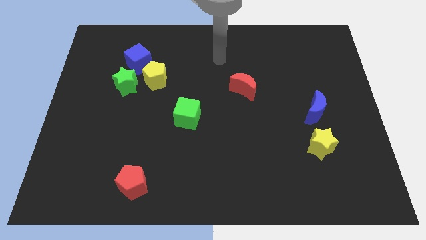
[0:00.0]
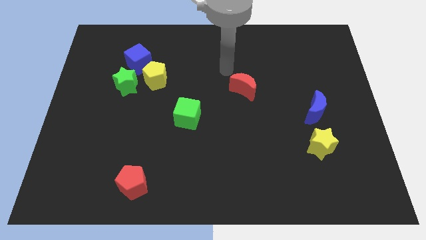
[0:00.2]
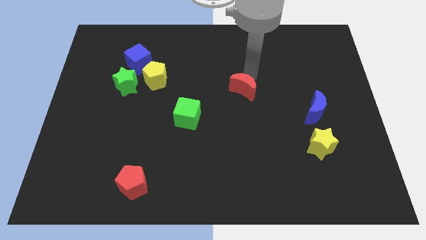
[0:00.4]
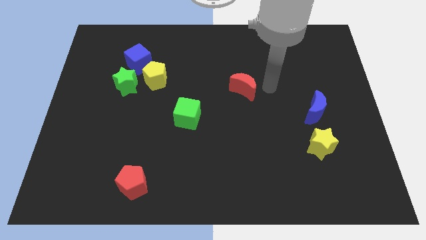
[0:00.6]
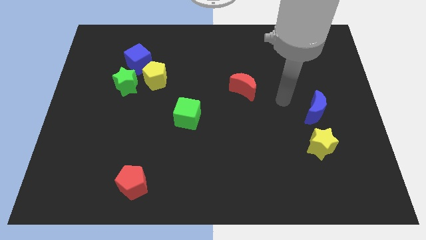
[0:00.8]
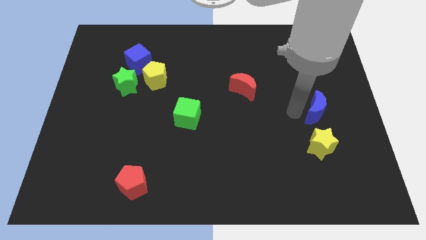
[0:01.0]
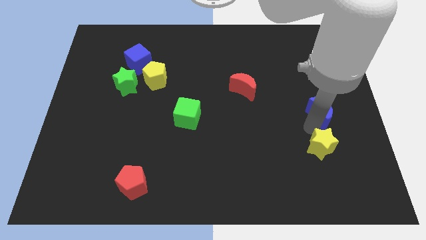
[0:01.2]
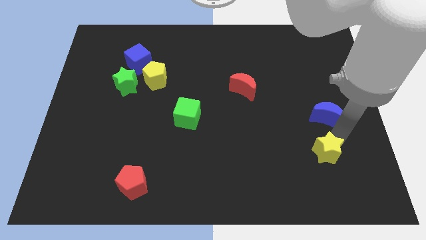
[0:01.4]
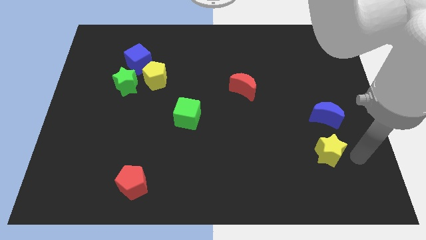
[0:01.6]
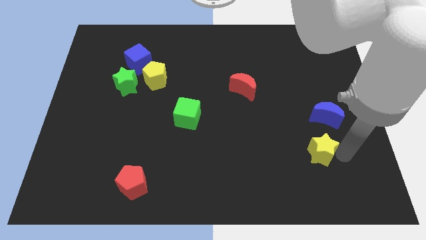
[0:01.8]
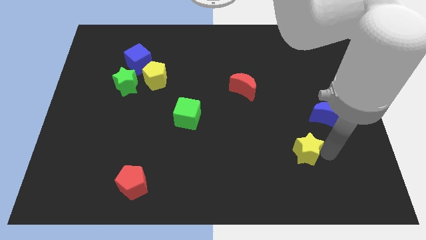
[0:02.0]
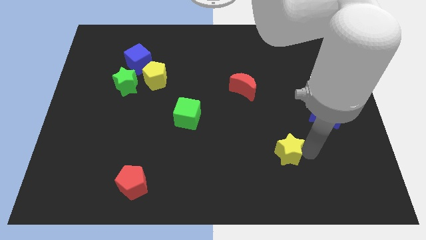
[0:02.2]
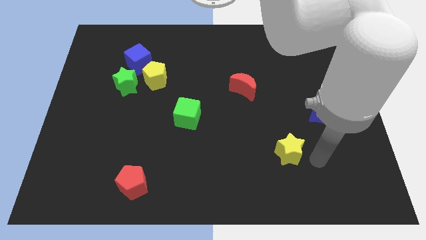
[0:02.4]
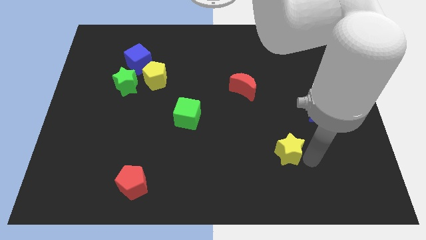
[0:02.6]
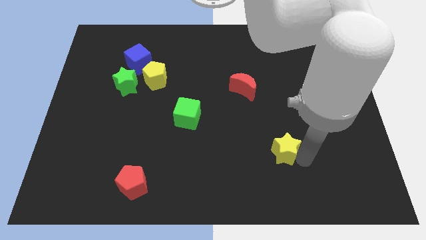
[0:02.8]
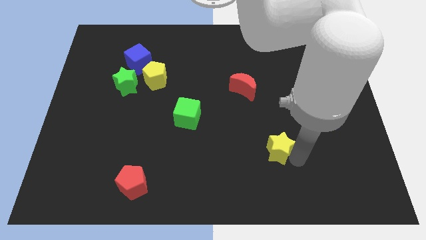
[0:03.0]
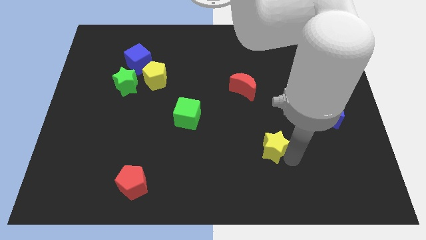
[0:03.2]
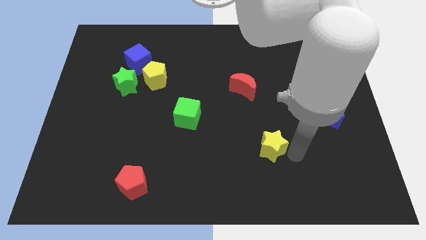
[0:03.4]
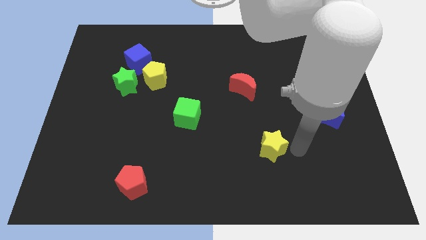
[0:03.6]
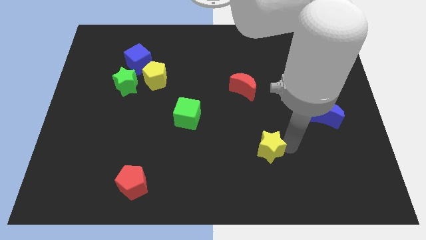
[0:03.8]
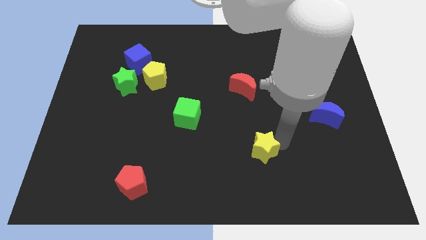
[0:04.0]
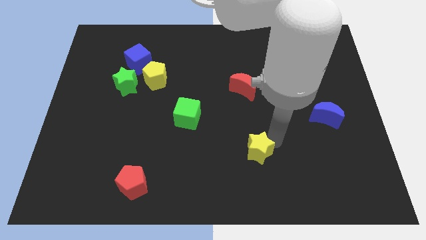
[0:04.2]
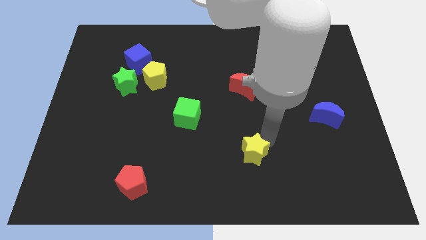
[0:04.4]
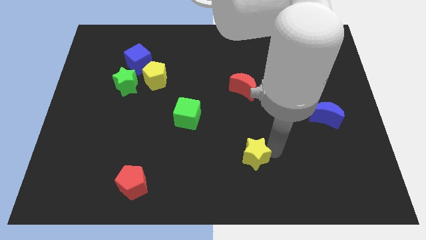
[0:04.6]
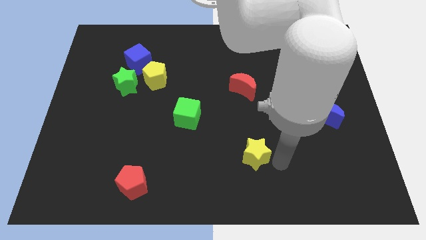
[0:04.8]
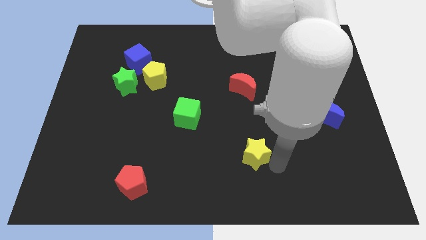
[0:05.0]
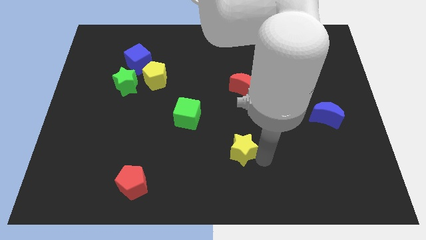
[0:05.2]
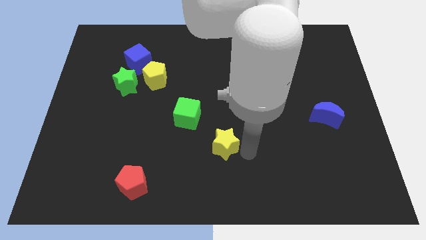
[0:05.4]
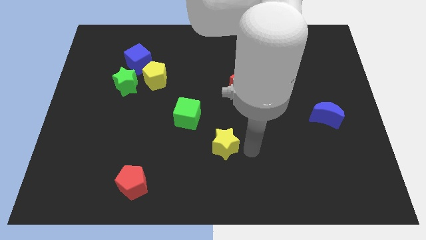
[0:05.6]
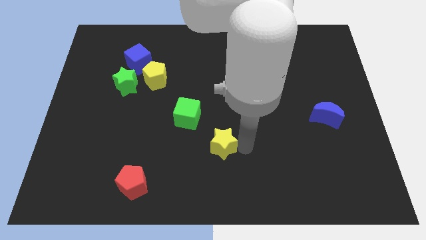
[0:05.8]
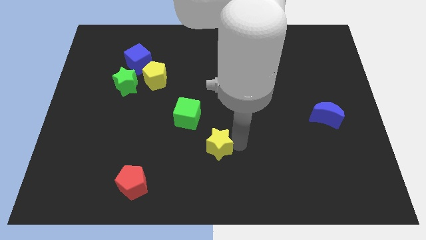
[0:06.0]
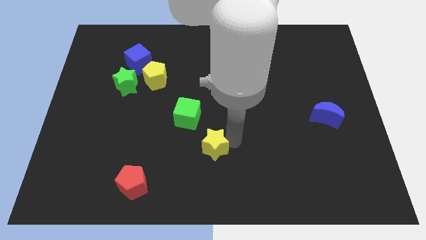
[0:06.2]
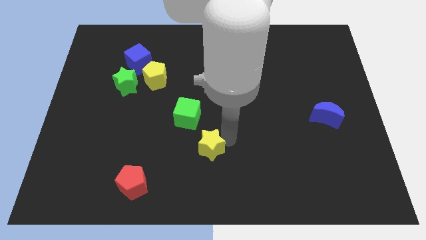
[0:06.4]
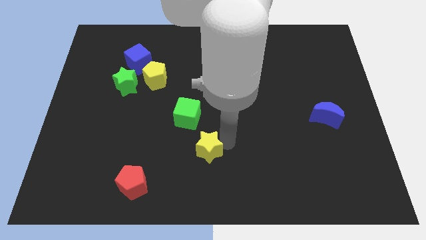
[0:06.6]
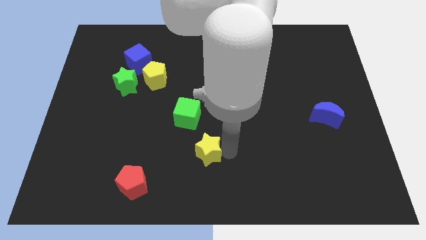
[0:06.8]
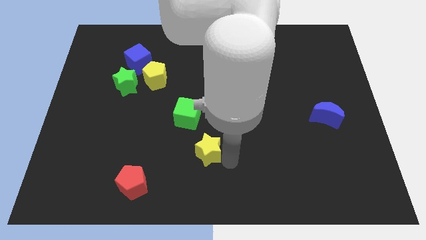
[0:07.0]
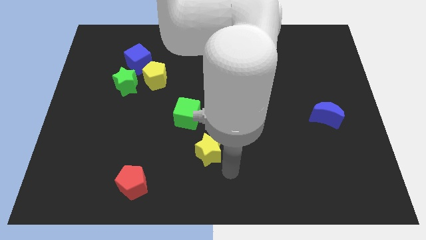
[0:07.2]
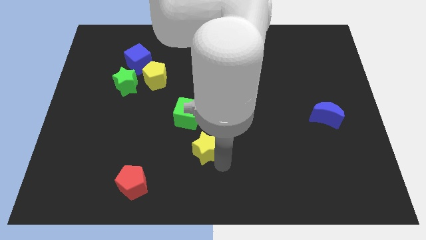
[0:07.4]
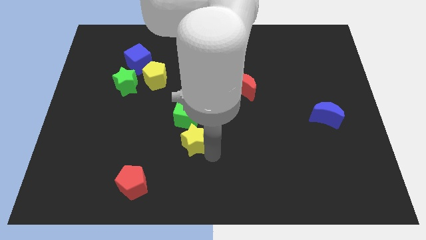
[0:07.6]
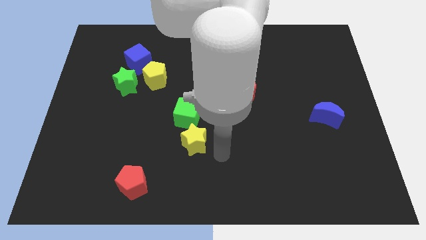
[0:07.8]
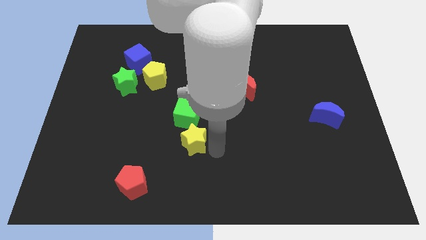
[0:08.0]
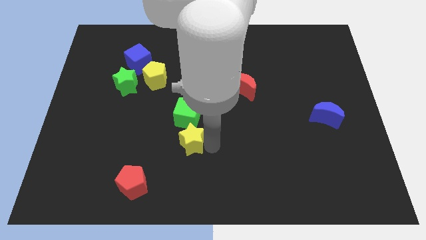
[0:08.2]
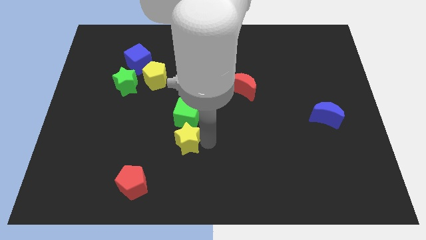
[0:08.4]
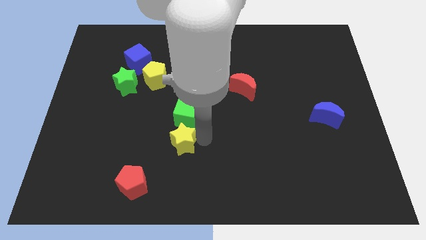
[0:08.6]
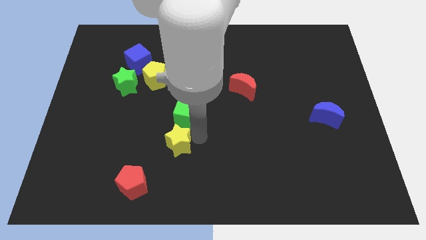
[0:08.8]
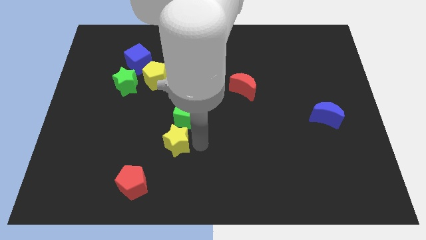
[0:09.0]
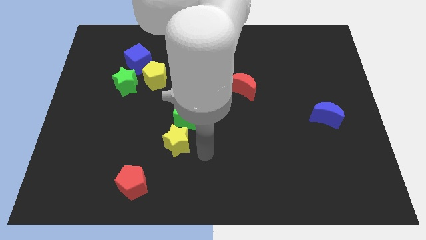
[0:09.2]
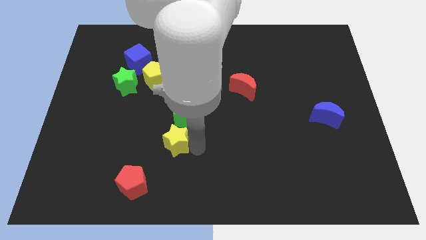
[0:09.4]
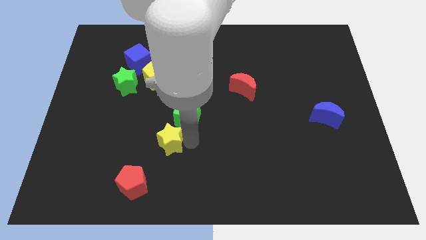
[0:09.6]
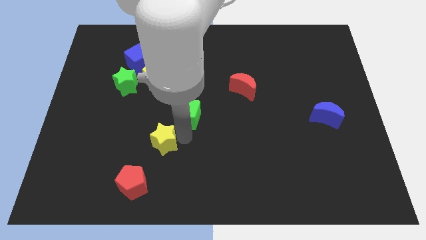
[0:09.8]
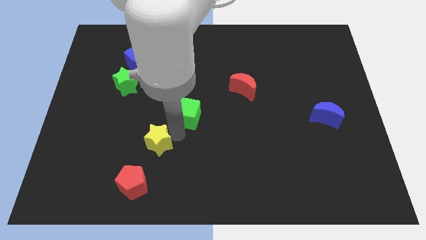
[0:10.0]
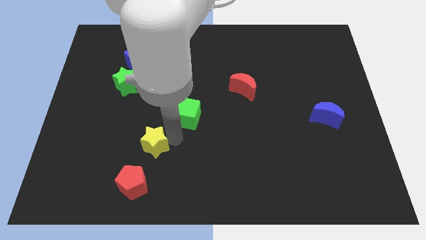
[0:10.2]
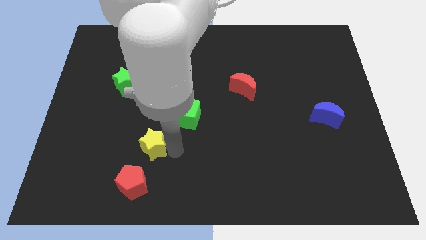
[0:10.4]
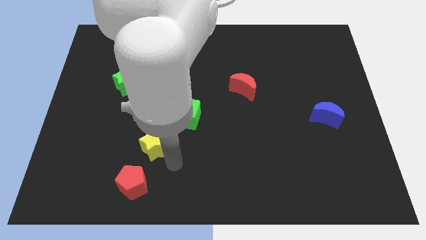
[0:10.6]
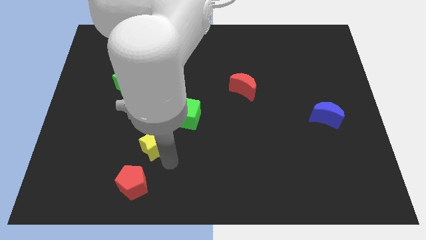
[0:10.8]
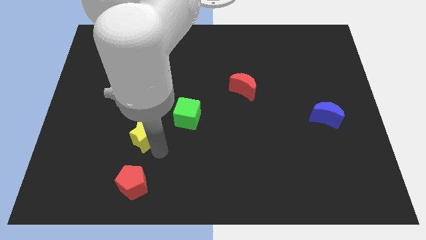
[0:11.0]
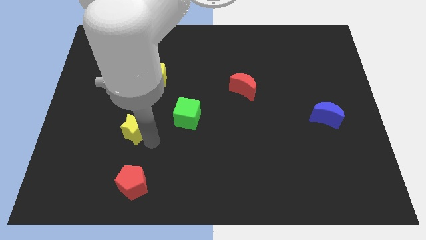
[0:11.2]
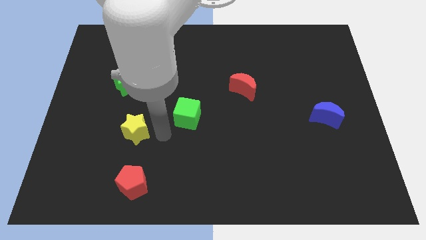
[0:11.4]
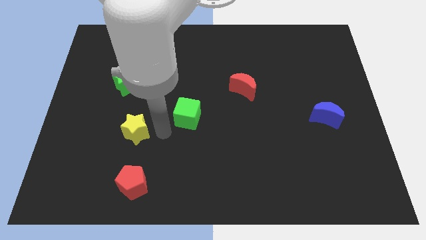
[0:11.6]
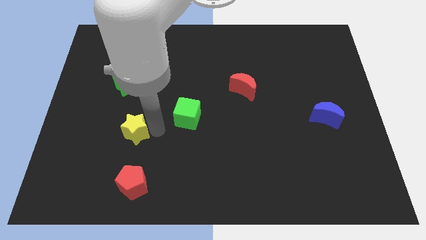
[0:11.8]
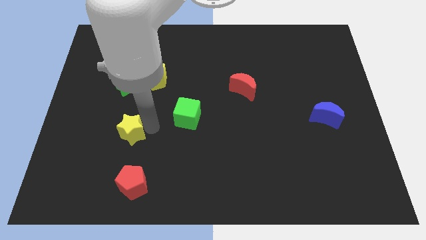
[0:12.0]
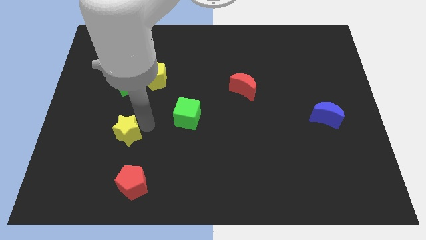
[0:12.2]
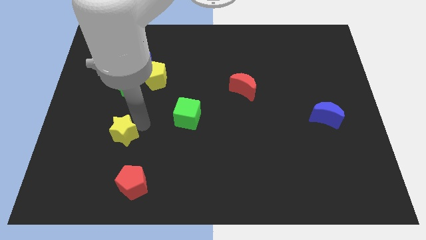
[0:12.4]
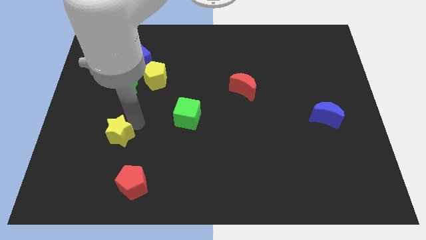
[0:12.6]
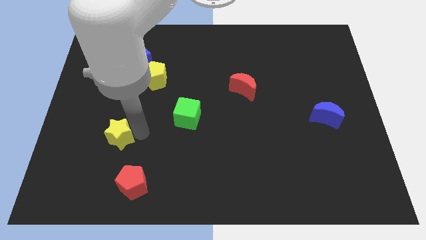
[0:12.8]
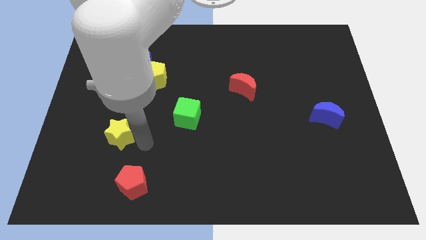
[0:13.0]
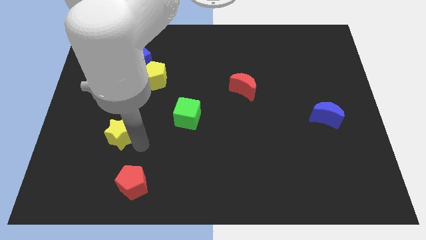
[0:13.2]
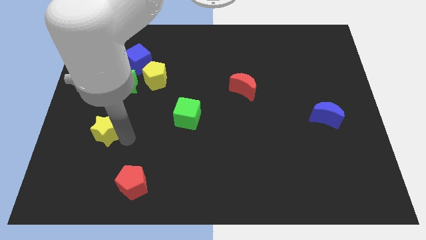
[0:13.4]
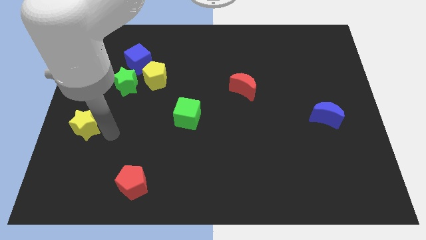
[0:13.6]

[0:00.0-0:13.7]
move the yellow star to the left side

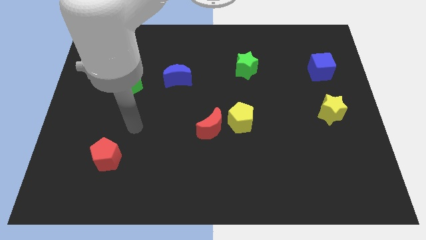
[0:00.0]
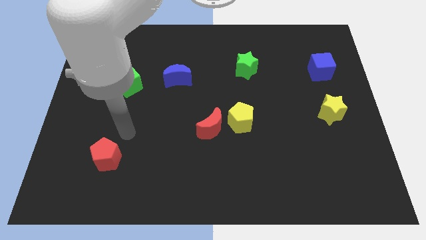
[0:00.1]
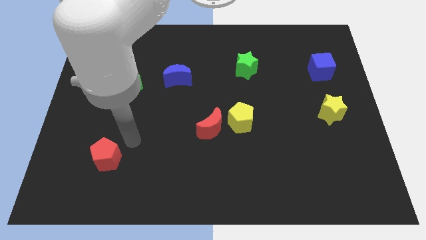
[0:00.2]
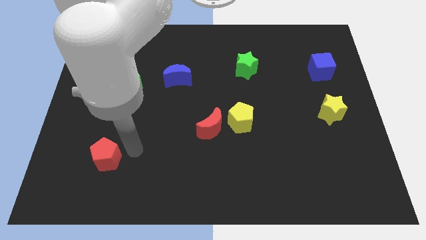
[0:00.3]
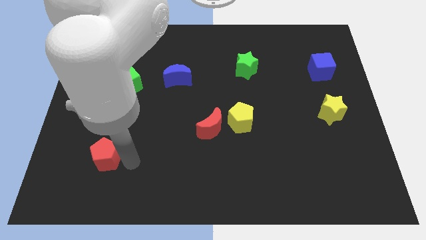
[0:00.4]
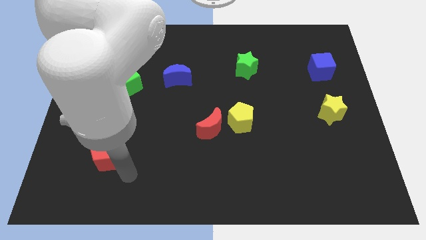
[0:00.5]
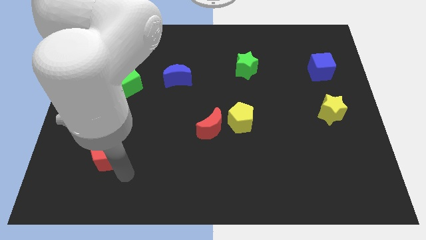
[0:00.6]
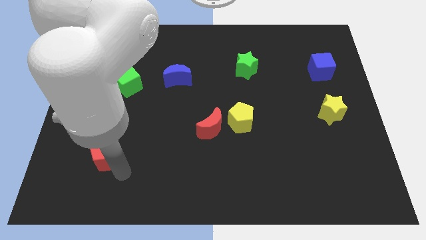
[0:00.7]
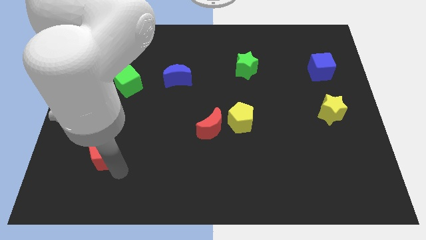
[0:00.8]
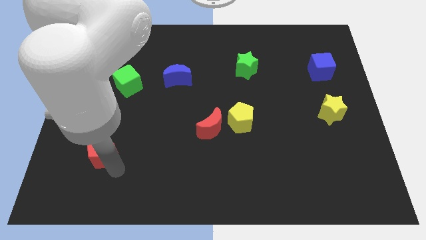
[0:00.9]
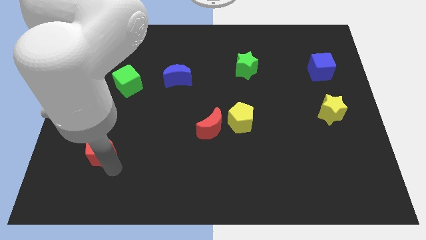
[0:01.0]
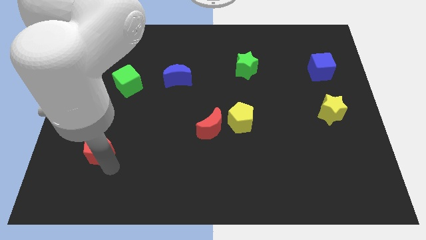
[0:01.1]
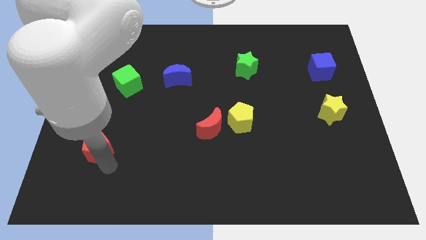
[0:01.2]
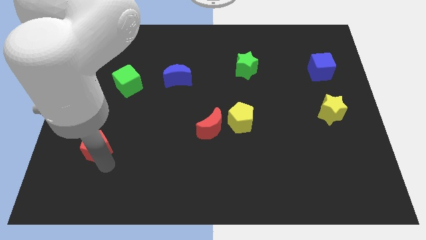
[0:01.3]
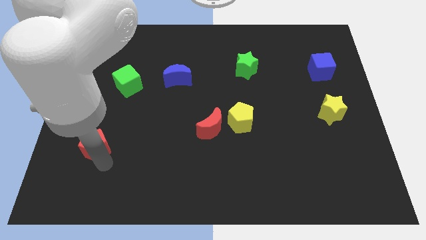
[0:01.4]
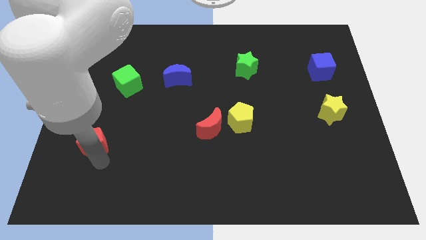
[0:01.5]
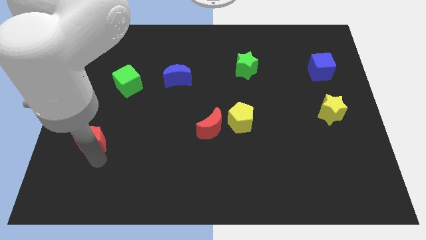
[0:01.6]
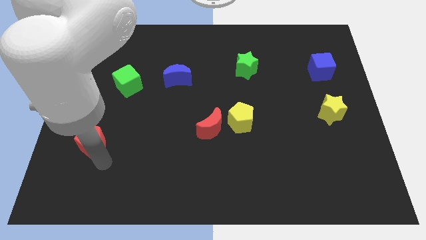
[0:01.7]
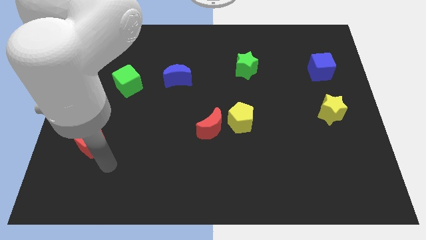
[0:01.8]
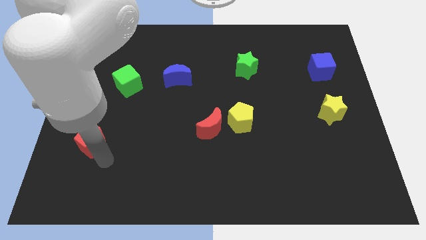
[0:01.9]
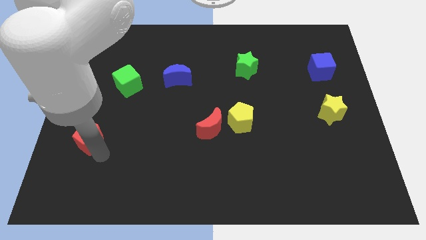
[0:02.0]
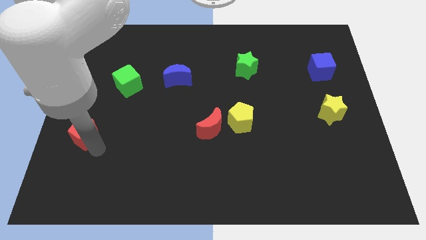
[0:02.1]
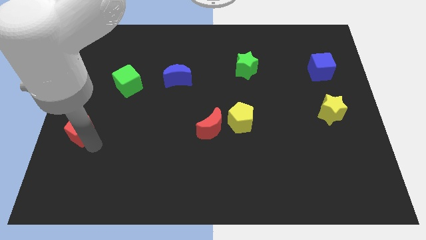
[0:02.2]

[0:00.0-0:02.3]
move the red pentagon to the left side
